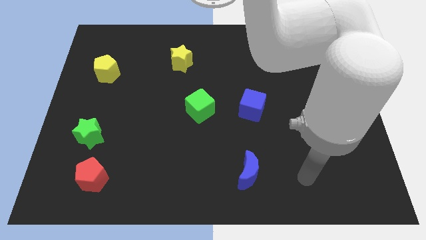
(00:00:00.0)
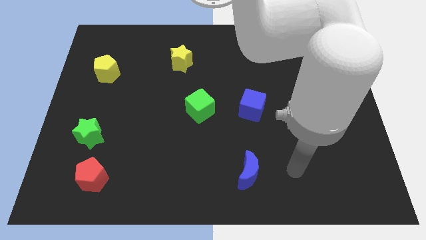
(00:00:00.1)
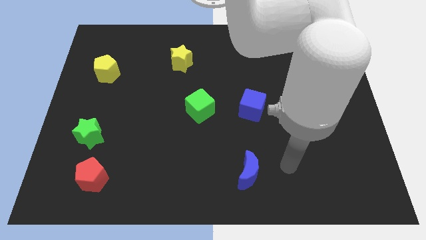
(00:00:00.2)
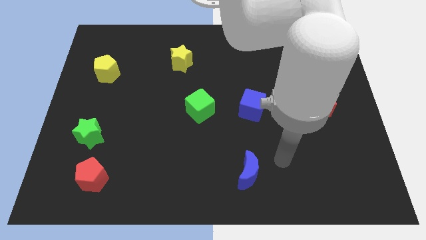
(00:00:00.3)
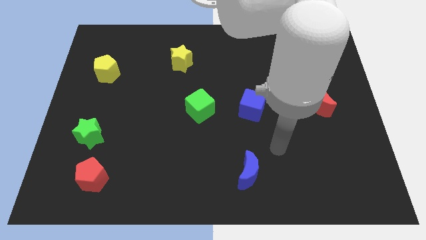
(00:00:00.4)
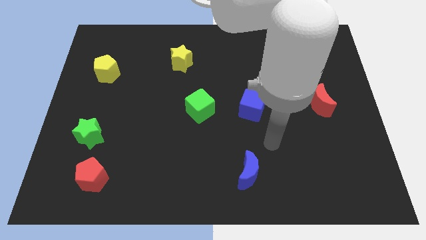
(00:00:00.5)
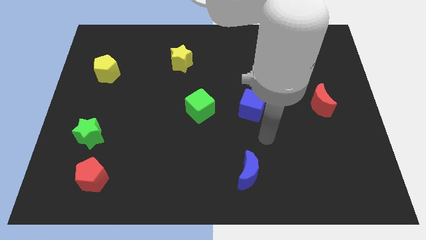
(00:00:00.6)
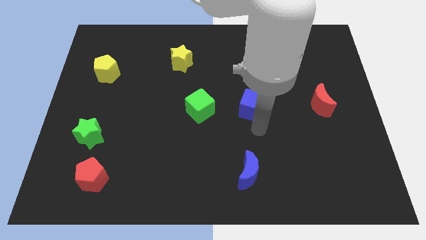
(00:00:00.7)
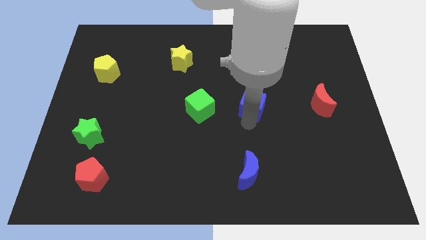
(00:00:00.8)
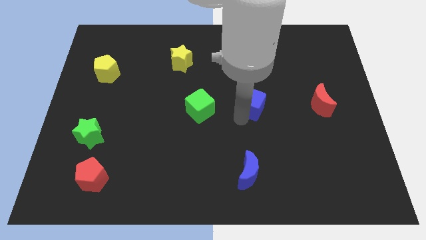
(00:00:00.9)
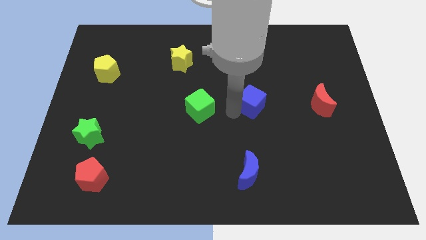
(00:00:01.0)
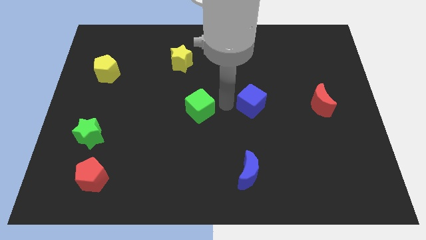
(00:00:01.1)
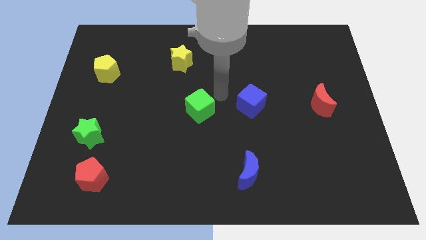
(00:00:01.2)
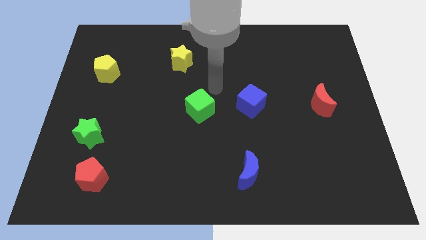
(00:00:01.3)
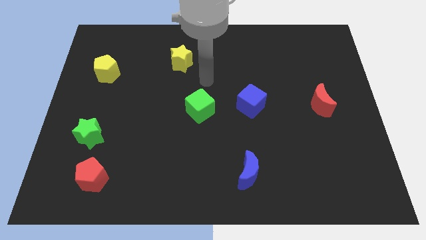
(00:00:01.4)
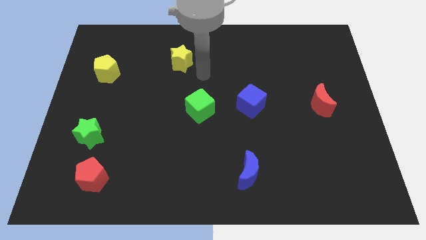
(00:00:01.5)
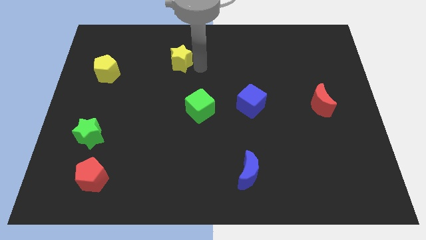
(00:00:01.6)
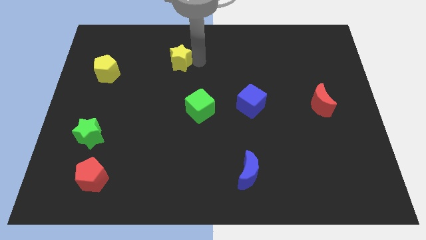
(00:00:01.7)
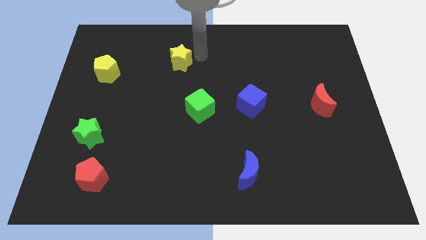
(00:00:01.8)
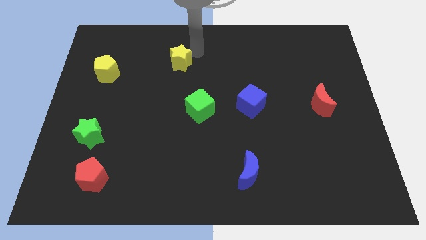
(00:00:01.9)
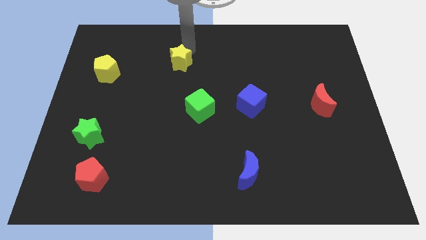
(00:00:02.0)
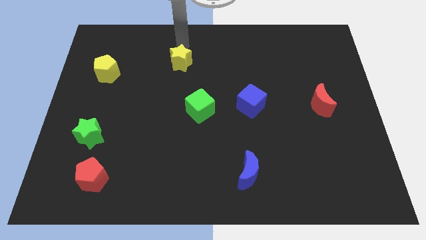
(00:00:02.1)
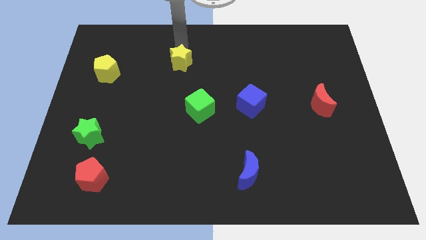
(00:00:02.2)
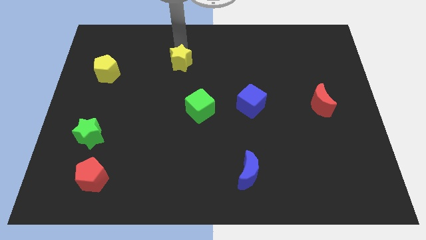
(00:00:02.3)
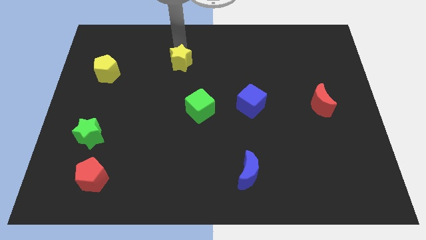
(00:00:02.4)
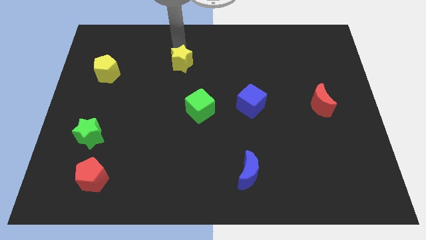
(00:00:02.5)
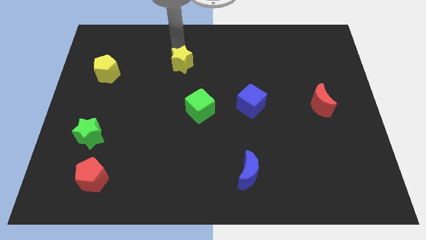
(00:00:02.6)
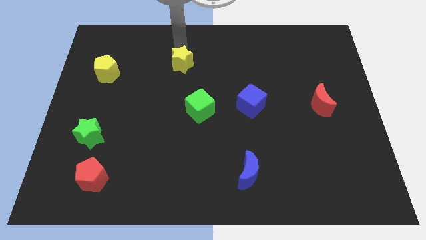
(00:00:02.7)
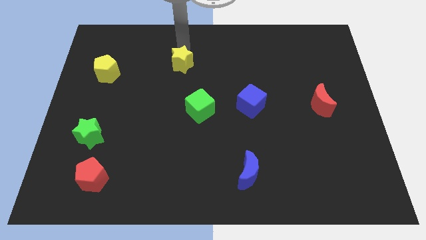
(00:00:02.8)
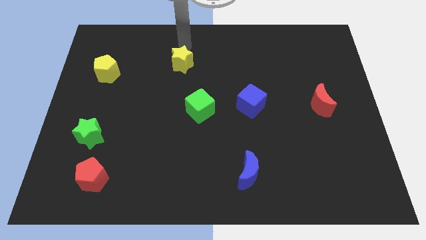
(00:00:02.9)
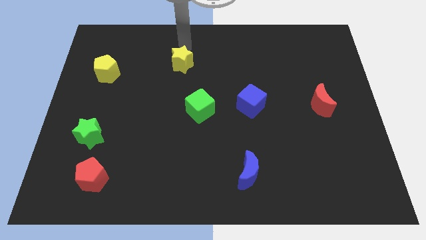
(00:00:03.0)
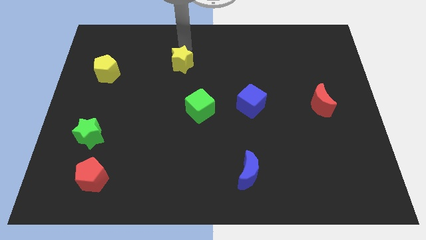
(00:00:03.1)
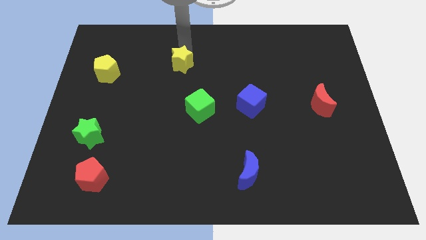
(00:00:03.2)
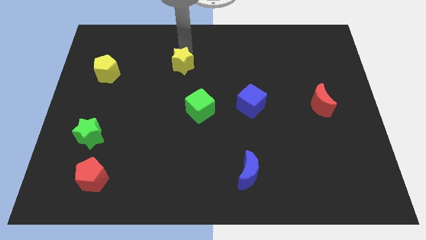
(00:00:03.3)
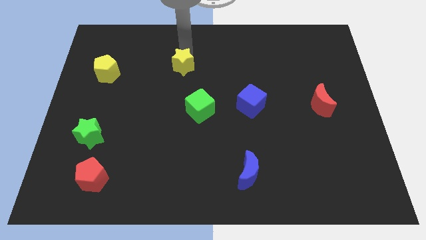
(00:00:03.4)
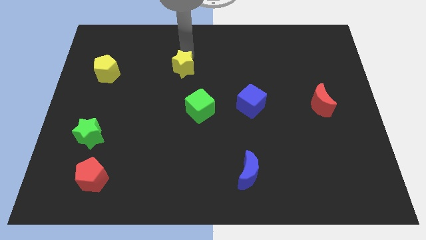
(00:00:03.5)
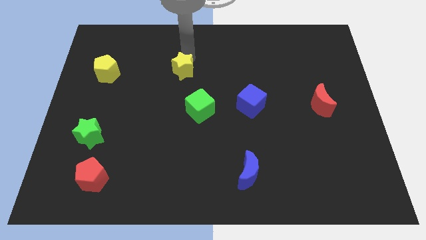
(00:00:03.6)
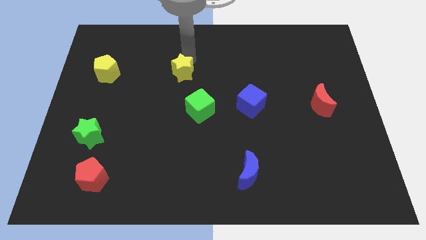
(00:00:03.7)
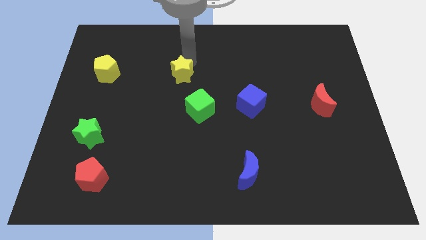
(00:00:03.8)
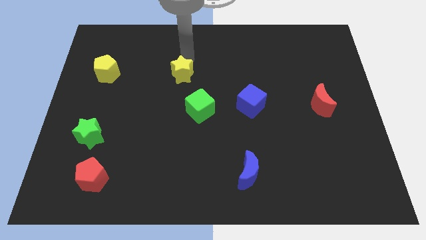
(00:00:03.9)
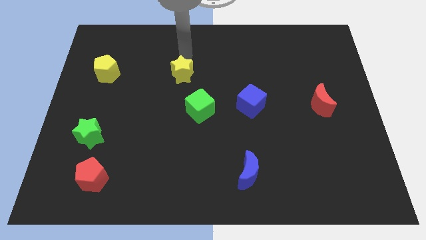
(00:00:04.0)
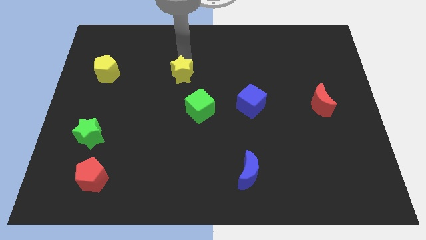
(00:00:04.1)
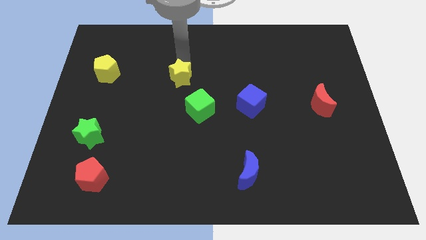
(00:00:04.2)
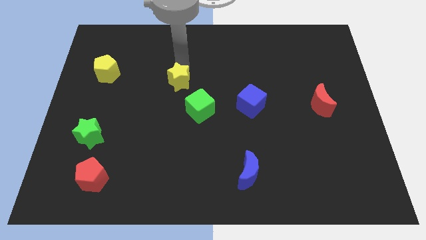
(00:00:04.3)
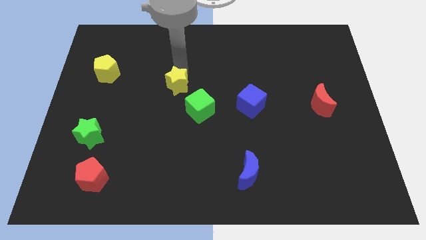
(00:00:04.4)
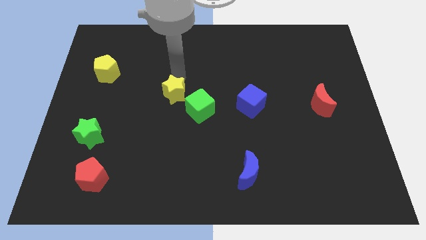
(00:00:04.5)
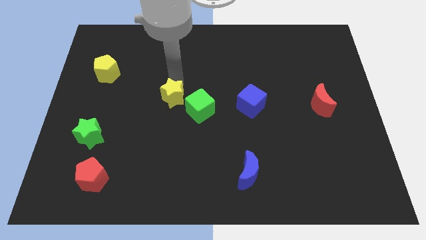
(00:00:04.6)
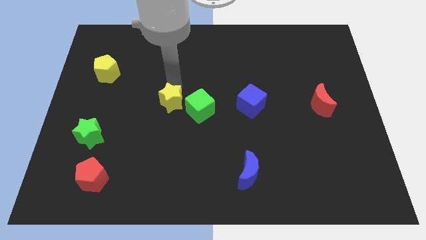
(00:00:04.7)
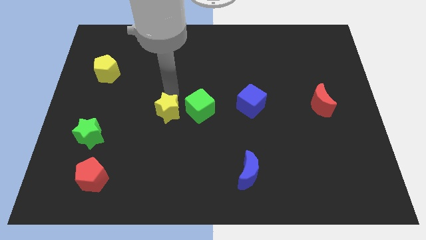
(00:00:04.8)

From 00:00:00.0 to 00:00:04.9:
push the yellow star to the bottom left of the green cube

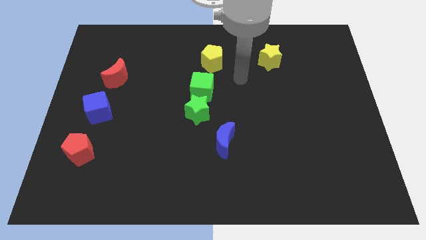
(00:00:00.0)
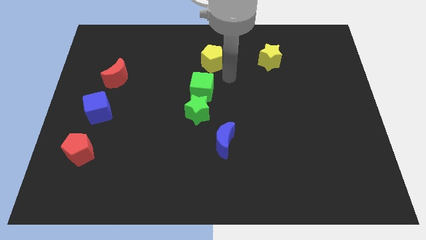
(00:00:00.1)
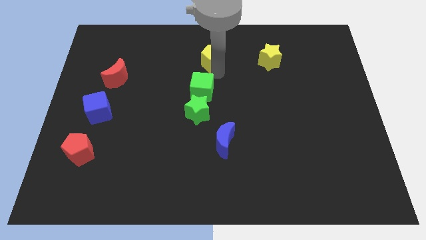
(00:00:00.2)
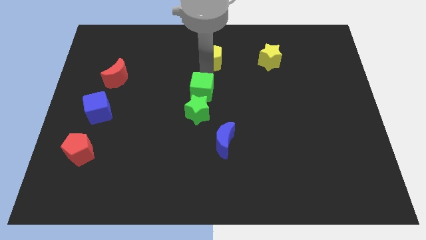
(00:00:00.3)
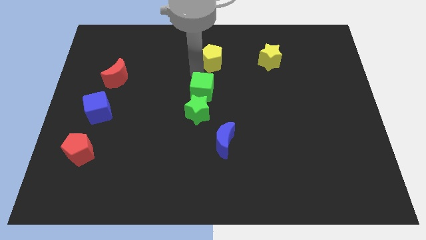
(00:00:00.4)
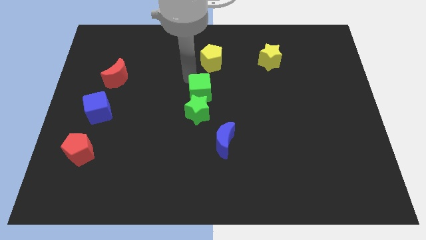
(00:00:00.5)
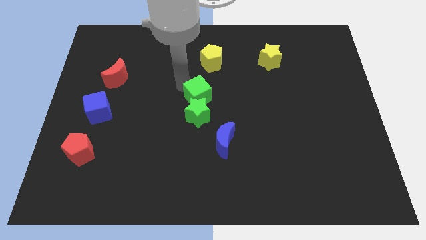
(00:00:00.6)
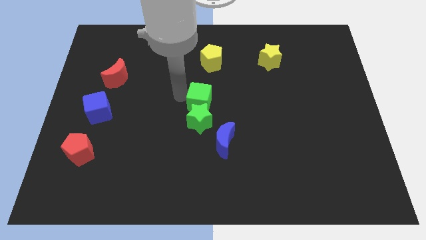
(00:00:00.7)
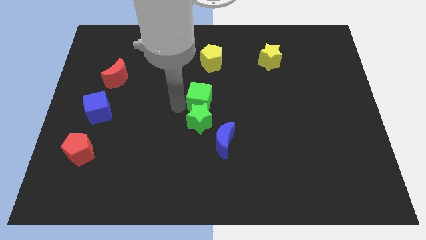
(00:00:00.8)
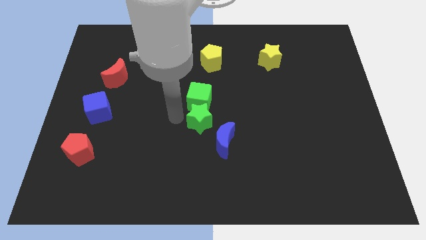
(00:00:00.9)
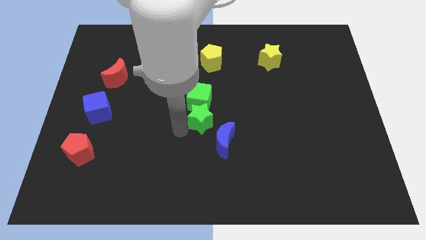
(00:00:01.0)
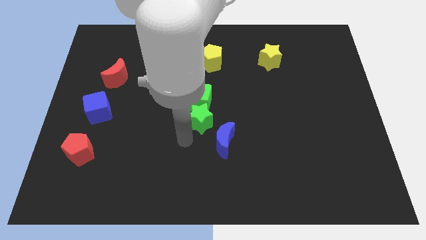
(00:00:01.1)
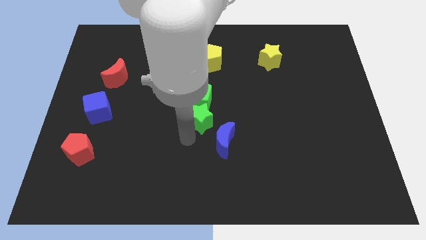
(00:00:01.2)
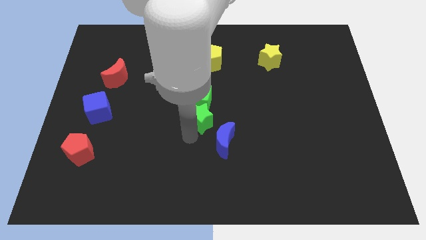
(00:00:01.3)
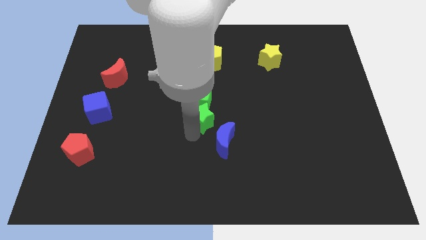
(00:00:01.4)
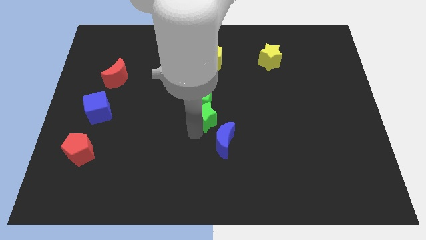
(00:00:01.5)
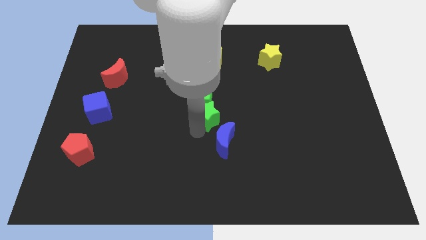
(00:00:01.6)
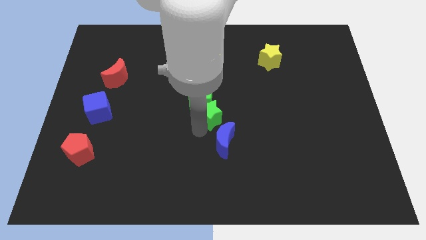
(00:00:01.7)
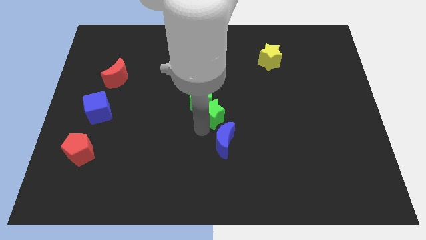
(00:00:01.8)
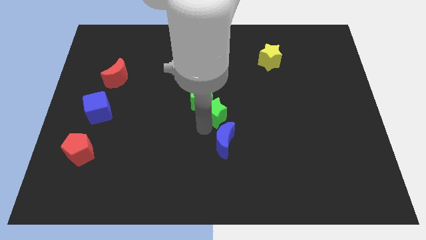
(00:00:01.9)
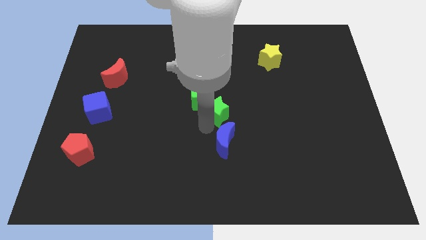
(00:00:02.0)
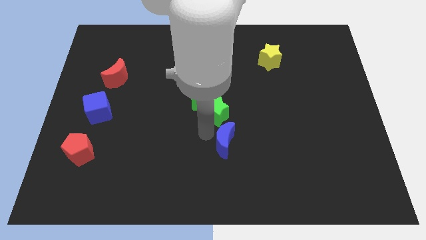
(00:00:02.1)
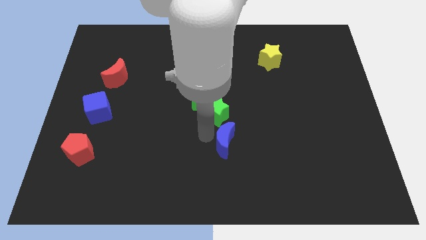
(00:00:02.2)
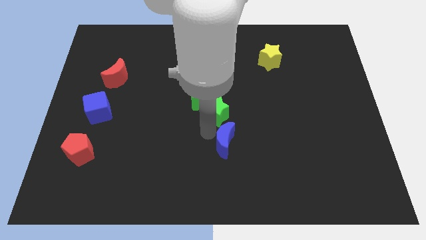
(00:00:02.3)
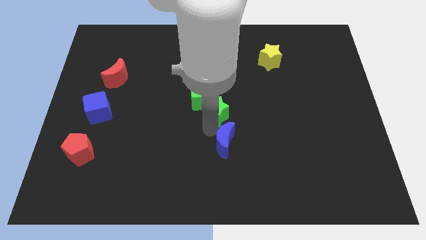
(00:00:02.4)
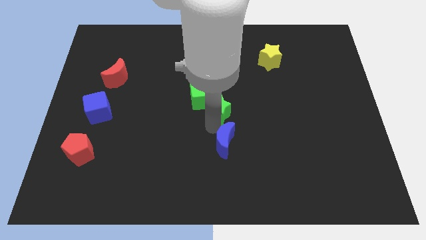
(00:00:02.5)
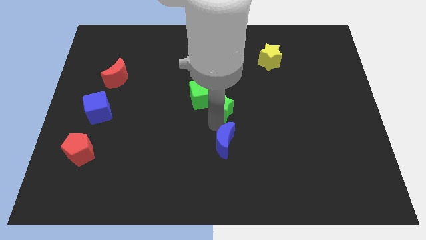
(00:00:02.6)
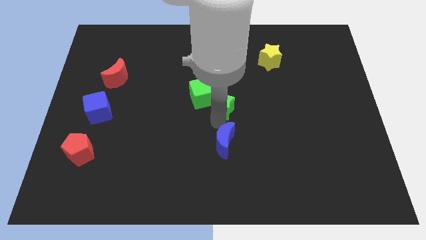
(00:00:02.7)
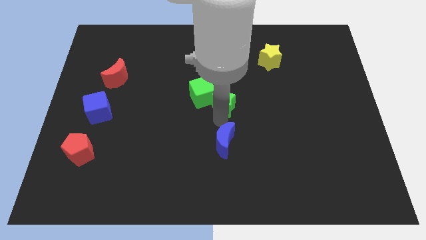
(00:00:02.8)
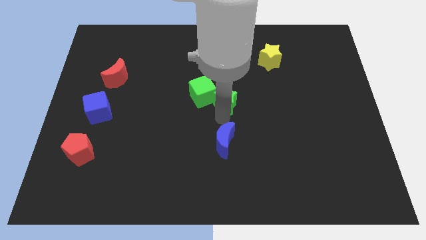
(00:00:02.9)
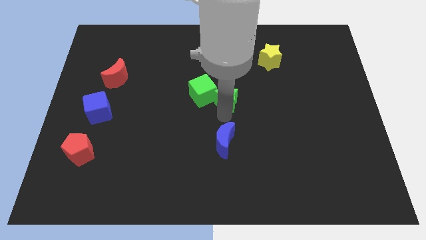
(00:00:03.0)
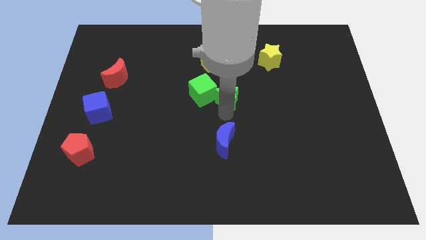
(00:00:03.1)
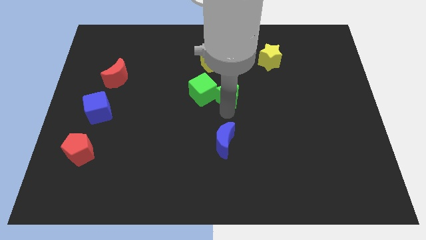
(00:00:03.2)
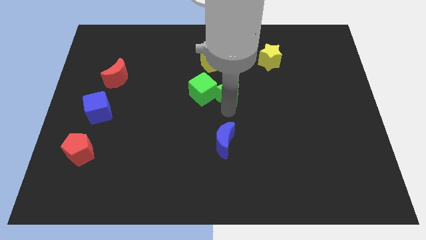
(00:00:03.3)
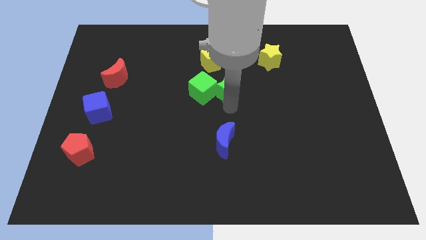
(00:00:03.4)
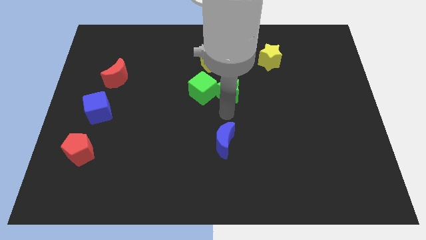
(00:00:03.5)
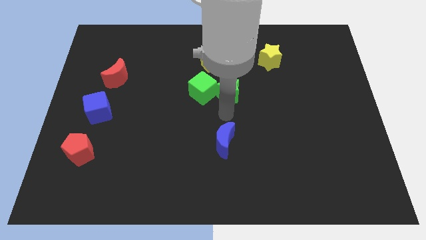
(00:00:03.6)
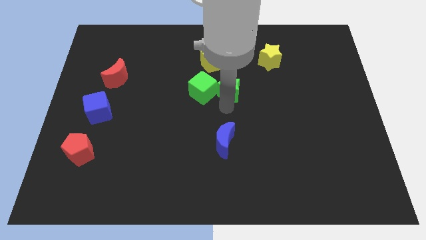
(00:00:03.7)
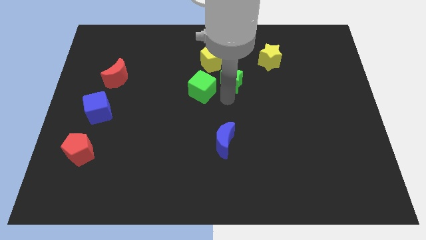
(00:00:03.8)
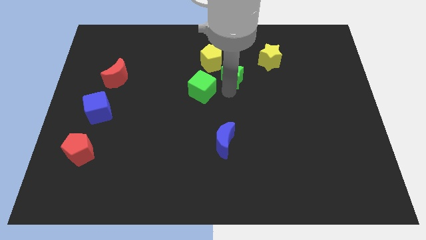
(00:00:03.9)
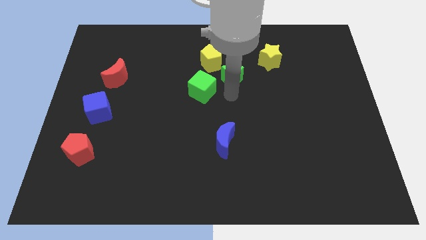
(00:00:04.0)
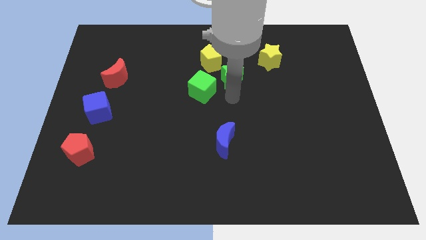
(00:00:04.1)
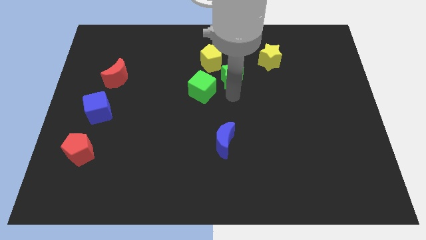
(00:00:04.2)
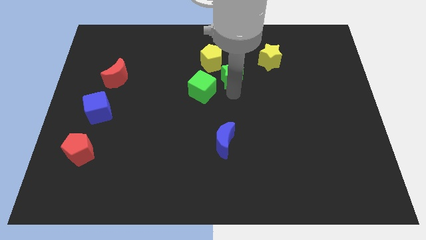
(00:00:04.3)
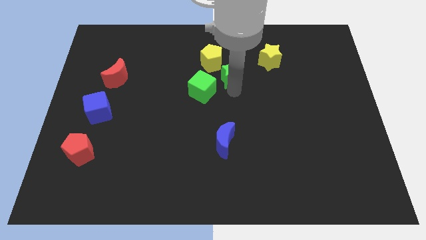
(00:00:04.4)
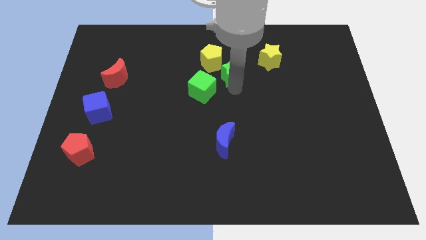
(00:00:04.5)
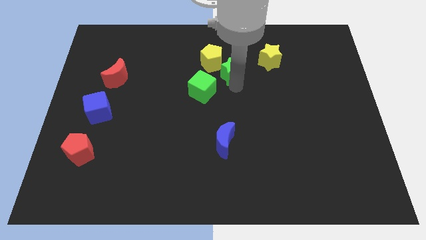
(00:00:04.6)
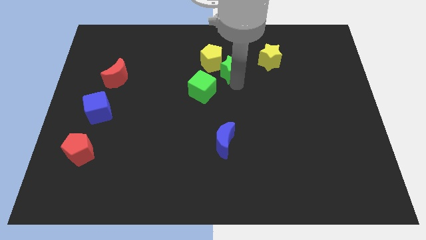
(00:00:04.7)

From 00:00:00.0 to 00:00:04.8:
put the green star left of the yellow star
